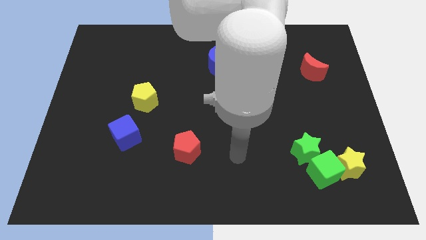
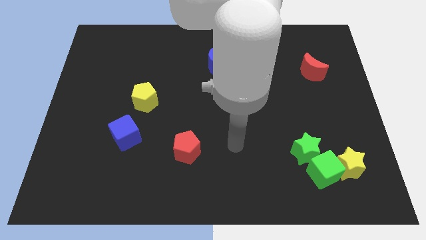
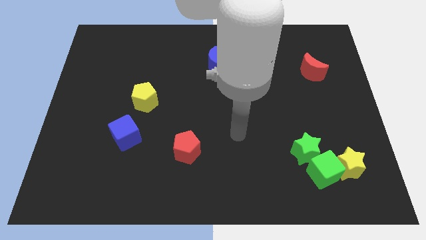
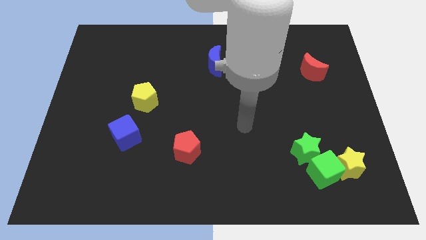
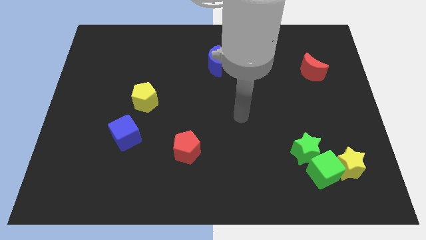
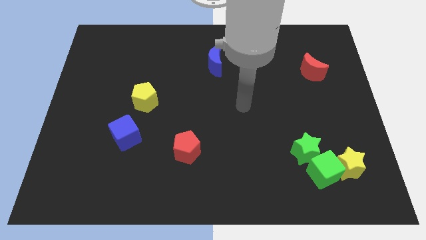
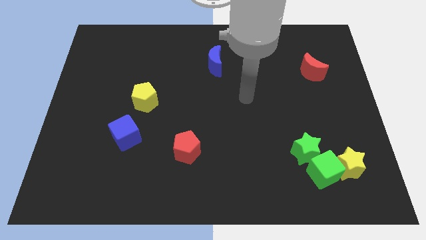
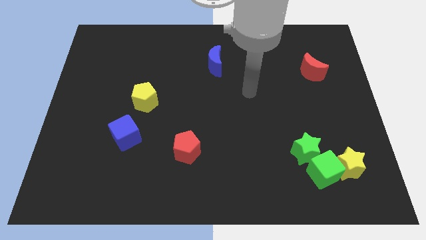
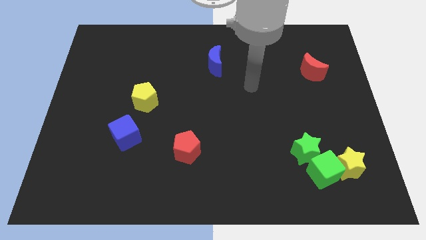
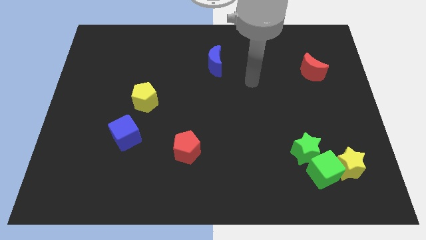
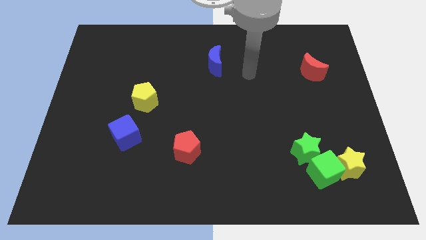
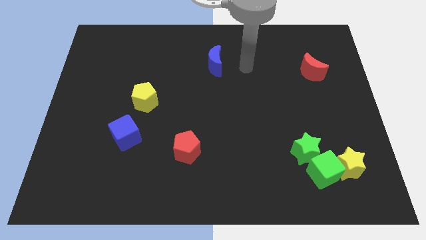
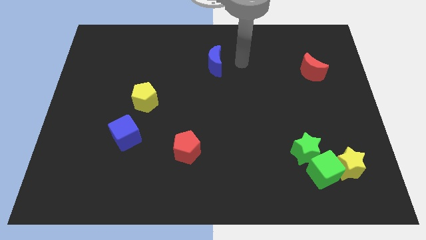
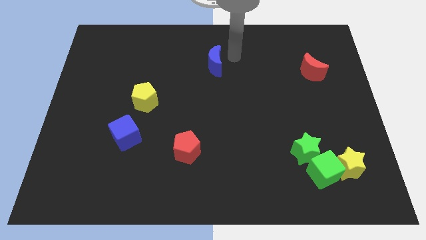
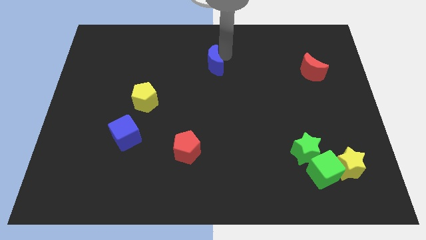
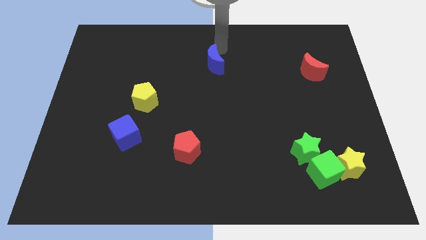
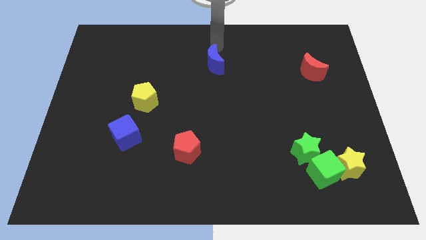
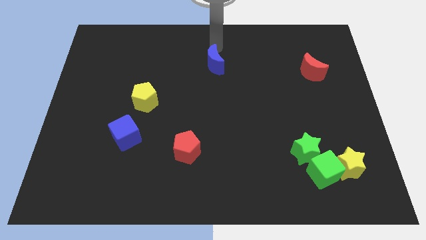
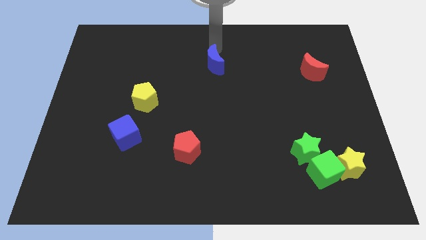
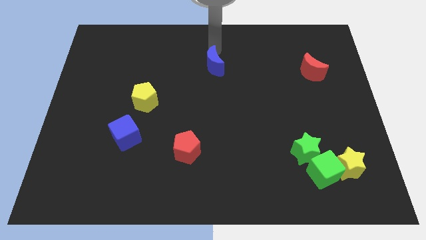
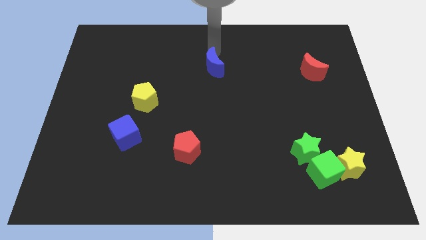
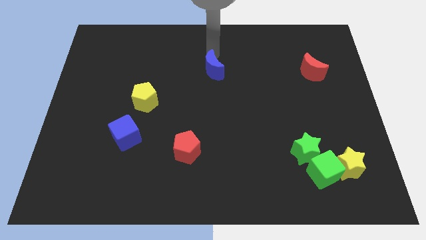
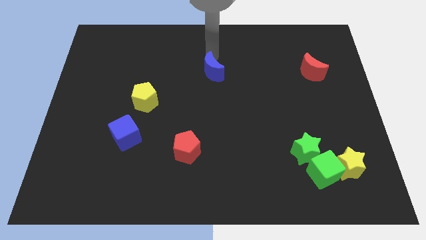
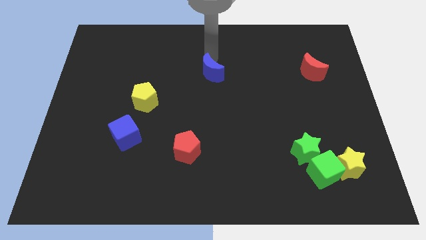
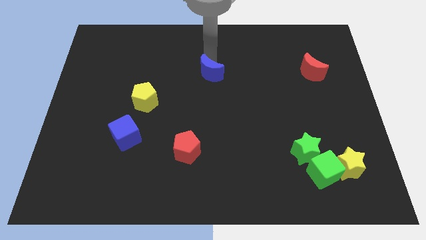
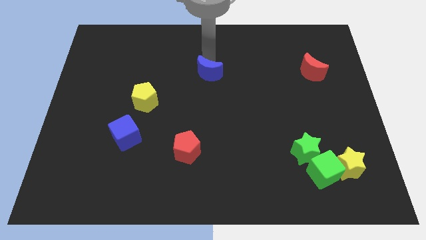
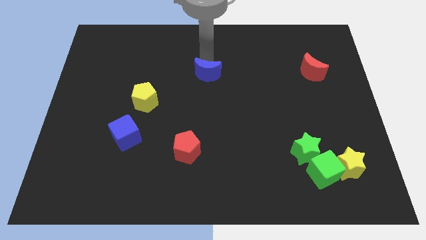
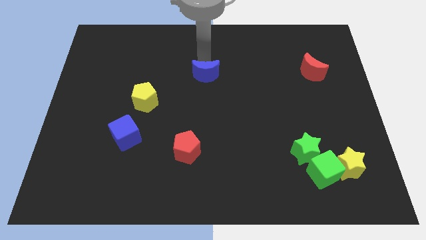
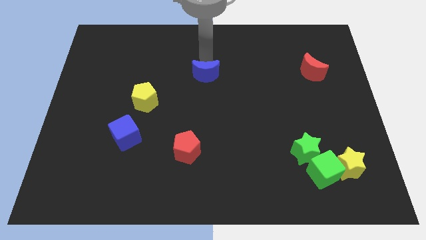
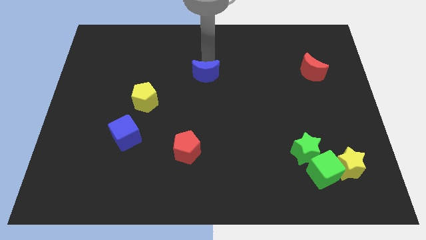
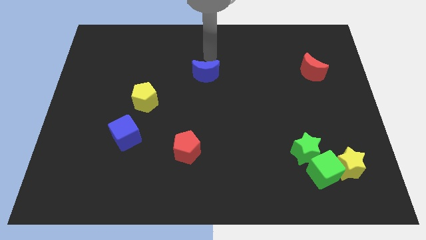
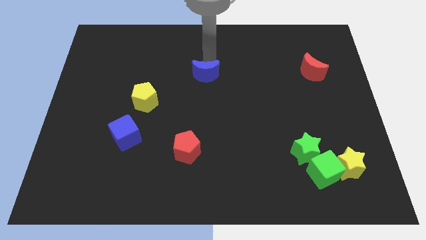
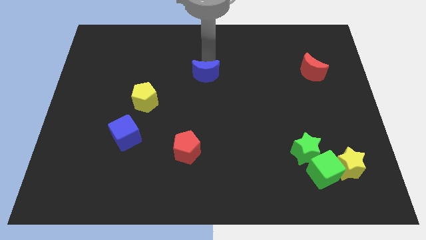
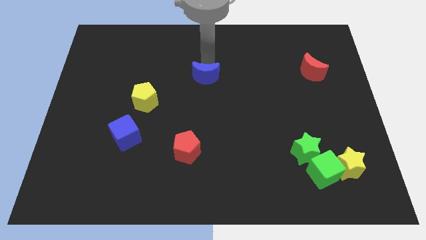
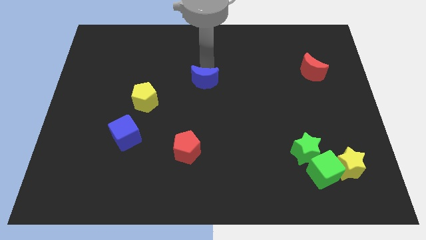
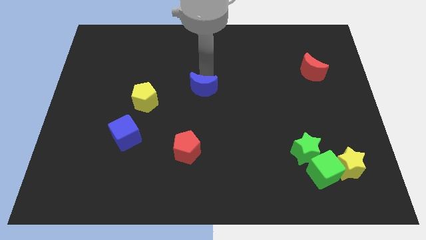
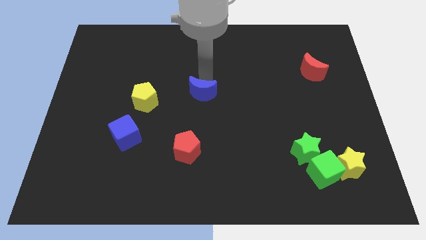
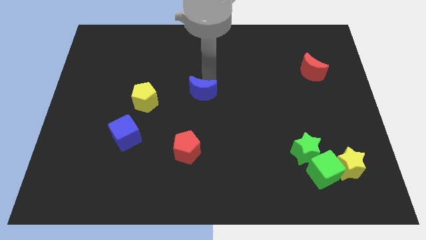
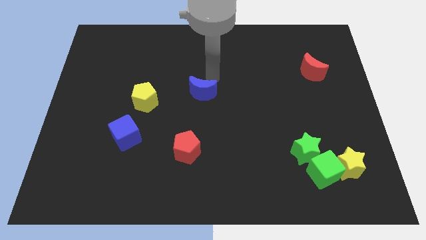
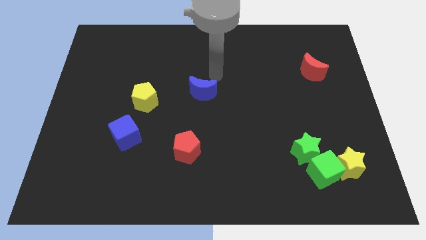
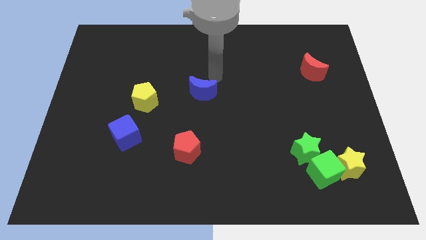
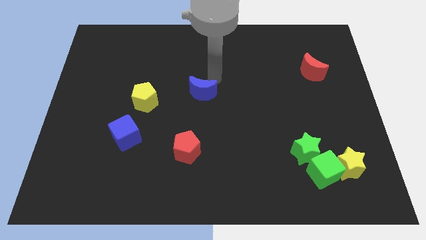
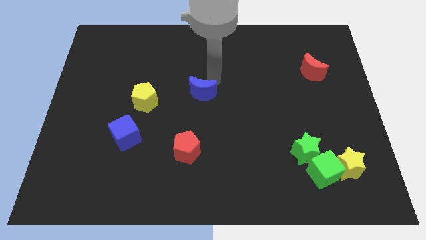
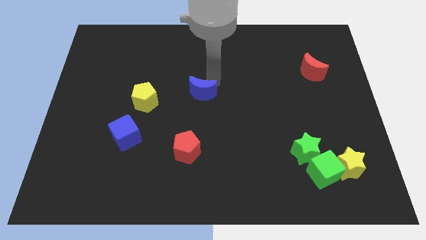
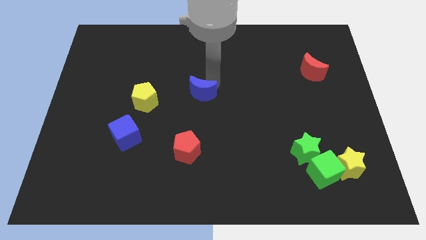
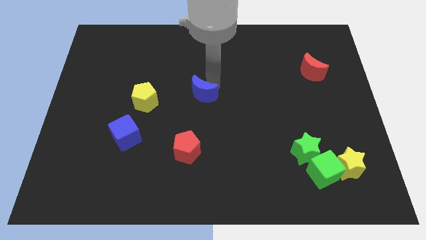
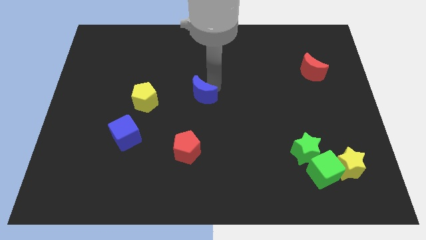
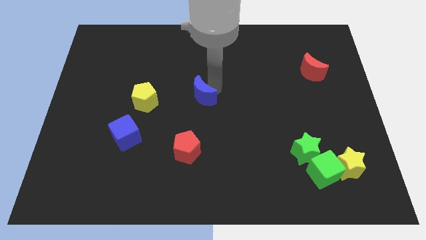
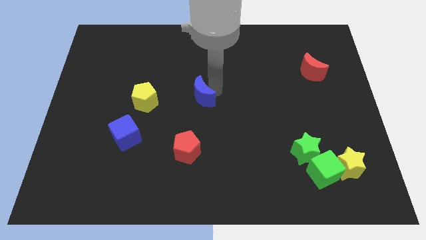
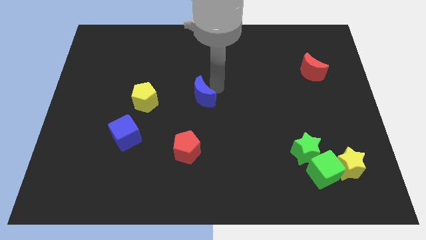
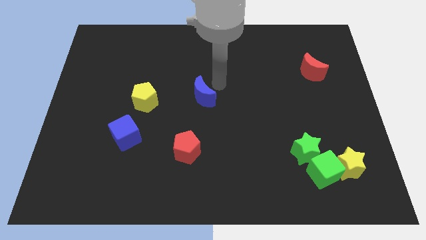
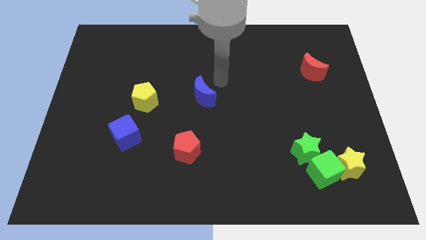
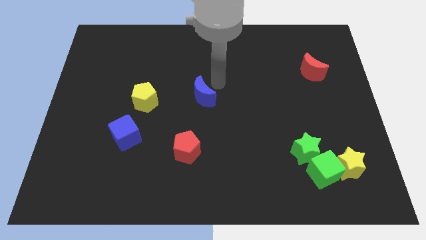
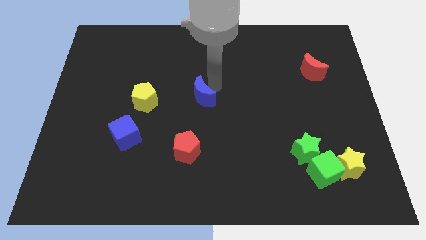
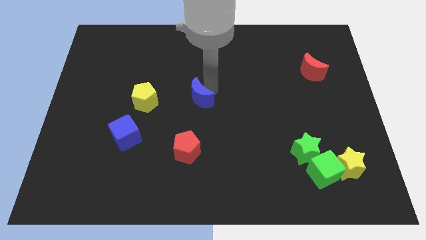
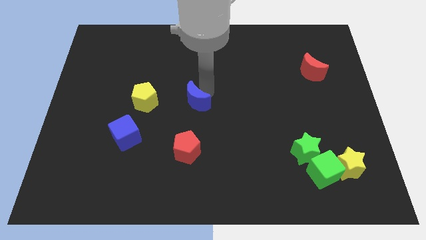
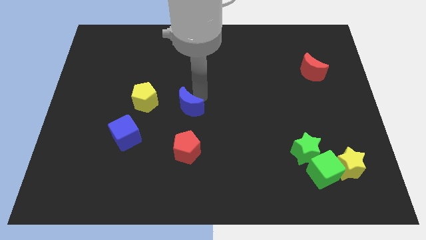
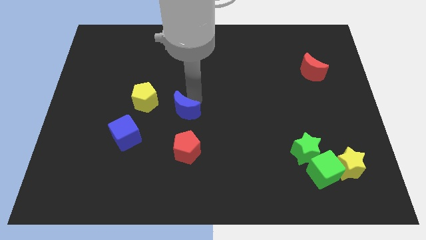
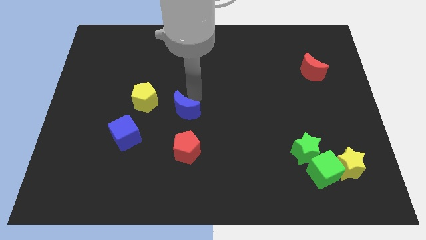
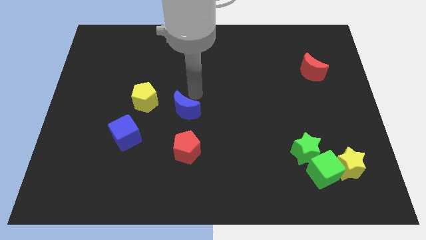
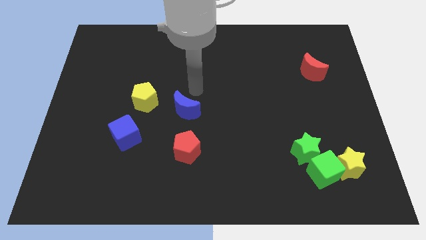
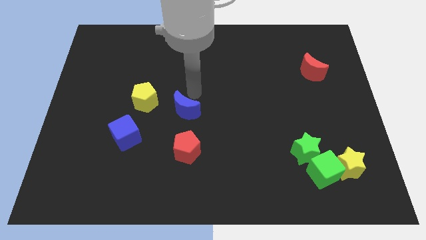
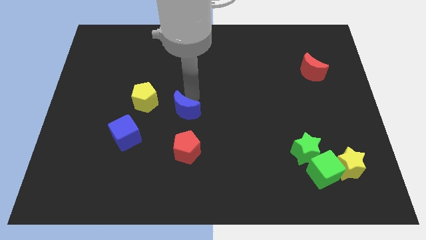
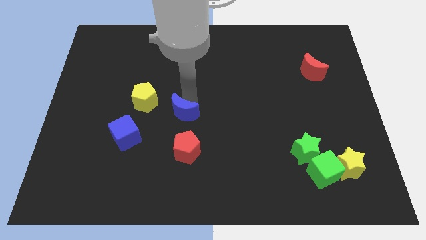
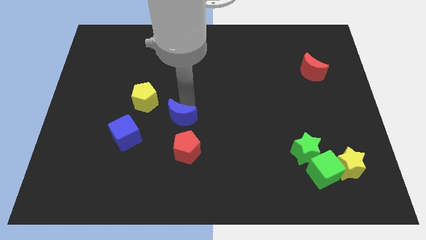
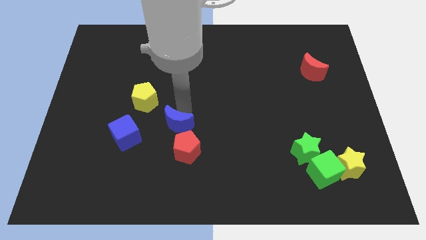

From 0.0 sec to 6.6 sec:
put the blue moon right of the blue cube
